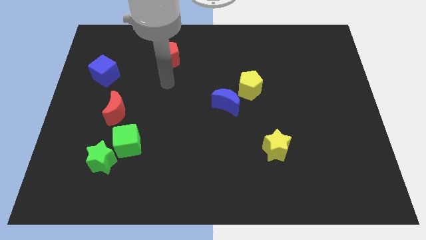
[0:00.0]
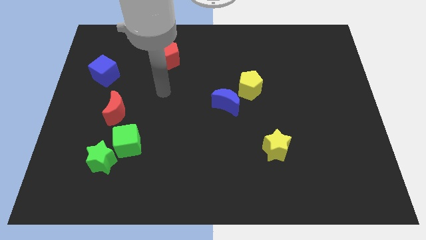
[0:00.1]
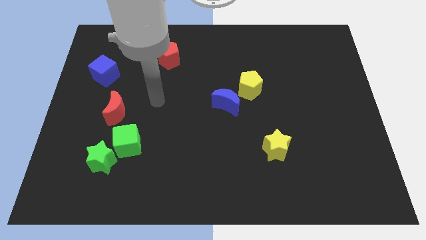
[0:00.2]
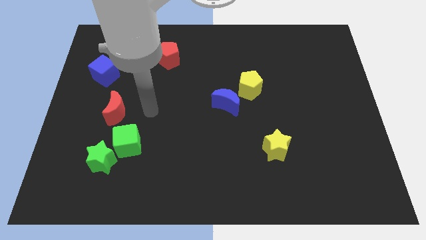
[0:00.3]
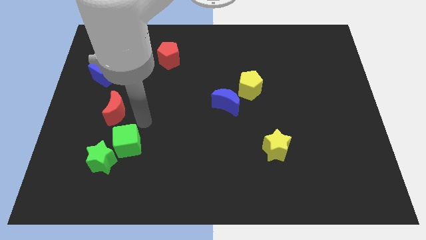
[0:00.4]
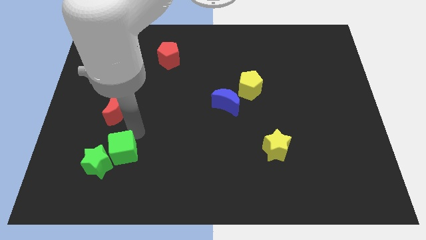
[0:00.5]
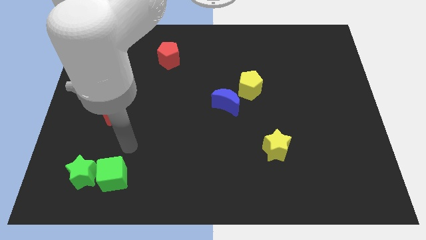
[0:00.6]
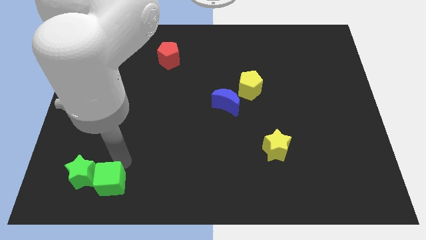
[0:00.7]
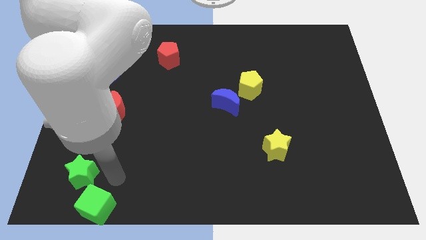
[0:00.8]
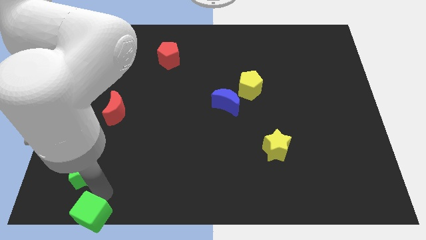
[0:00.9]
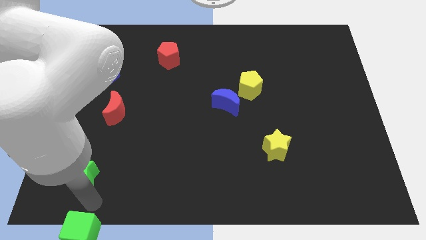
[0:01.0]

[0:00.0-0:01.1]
pull the green star apart from the green cube

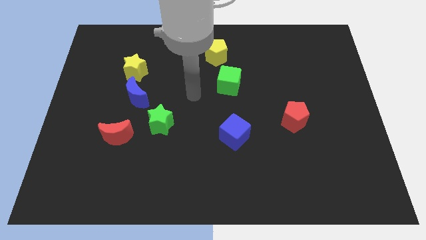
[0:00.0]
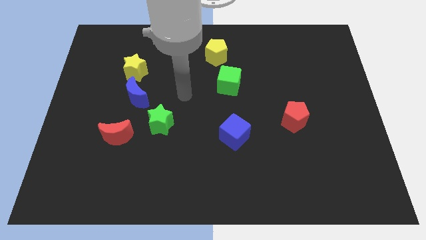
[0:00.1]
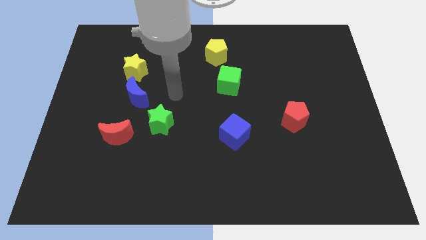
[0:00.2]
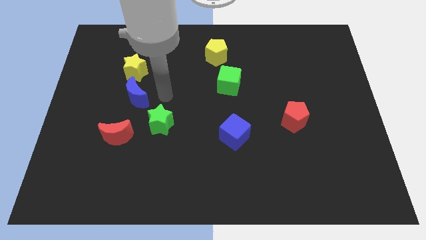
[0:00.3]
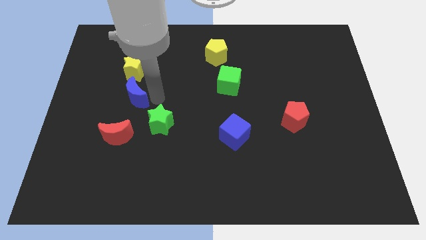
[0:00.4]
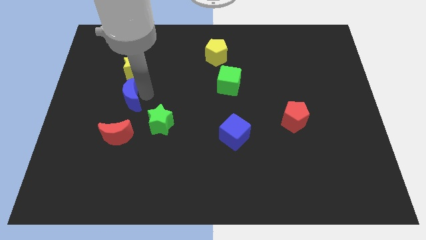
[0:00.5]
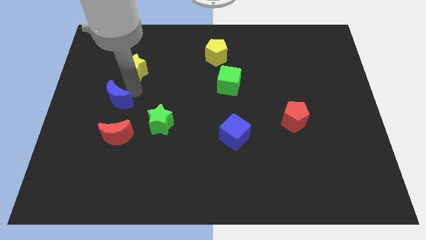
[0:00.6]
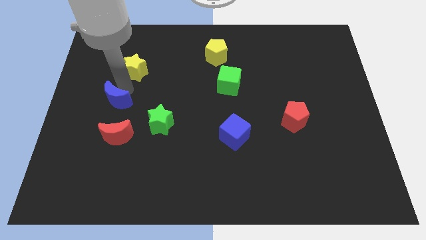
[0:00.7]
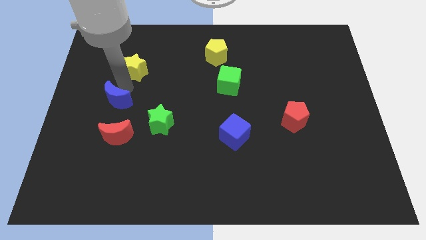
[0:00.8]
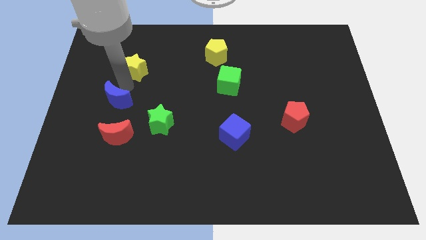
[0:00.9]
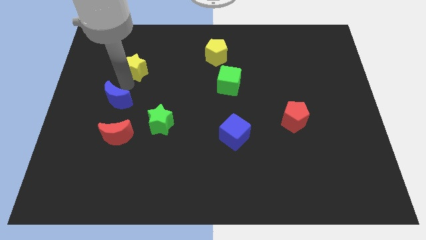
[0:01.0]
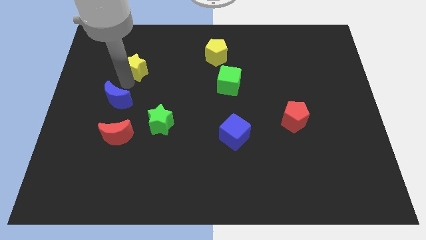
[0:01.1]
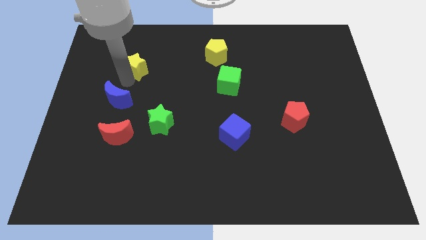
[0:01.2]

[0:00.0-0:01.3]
pull the yellow star apart from the blue moon

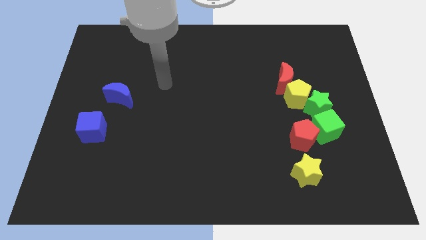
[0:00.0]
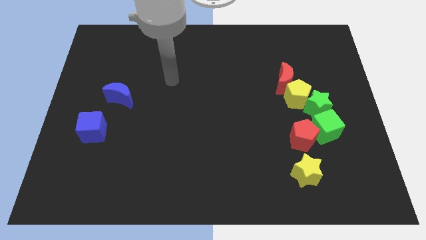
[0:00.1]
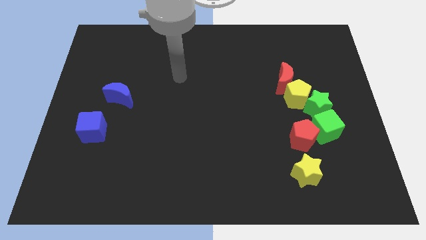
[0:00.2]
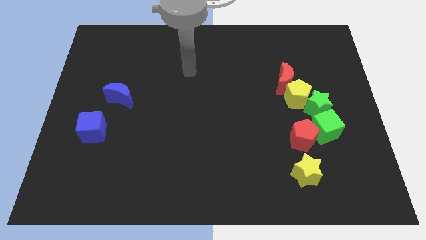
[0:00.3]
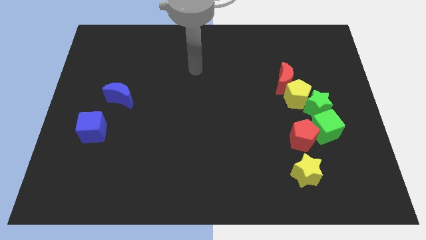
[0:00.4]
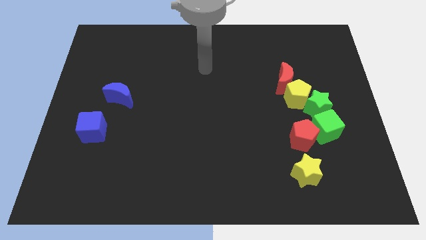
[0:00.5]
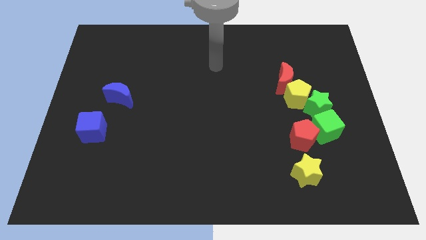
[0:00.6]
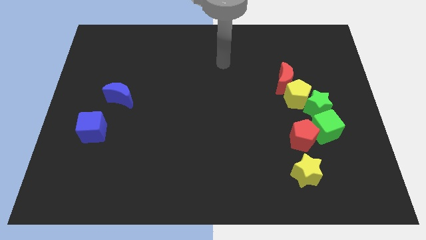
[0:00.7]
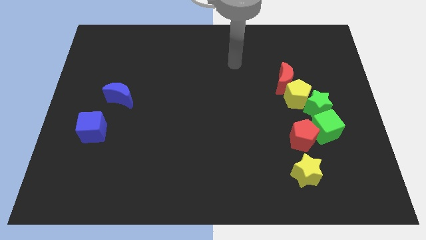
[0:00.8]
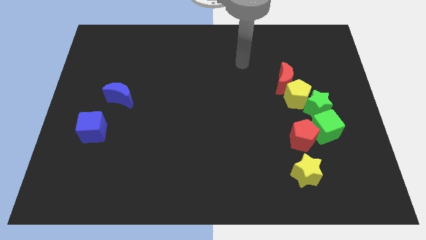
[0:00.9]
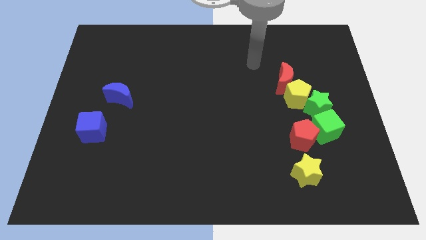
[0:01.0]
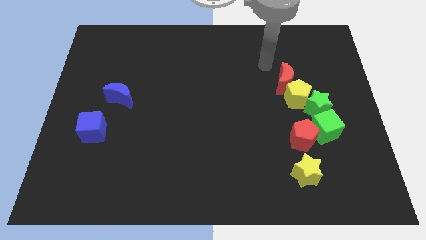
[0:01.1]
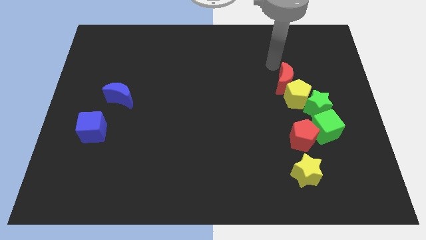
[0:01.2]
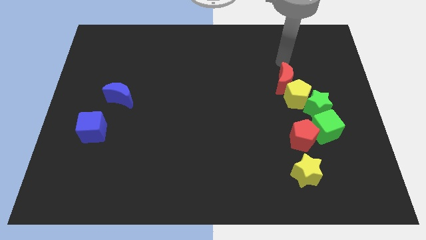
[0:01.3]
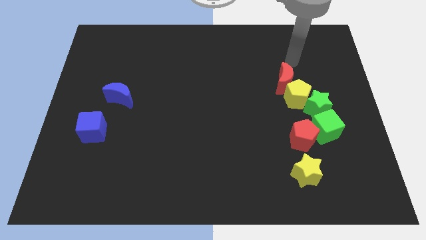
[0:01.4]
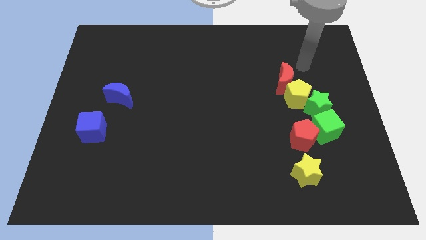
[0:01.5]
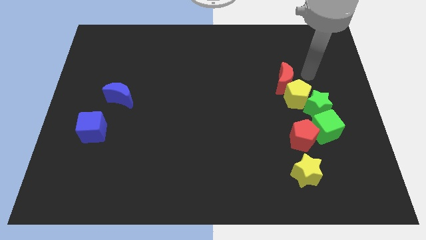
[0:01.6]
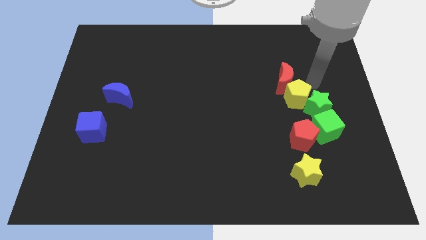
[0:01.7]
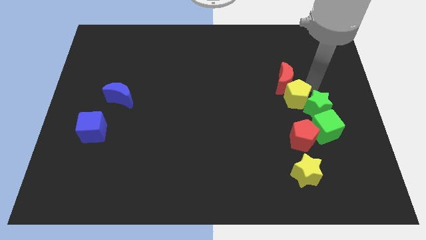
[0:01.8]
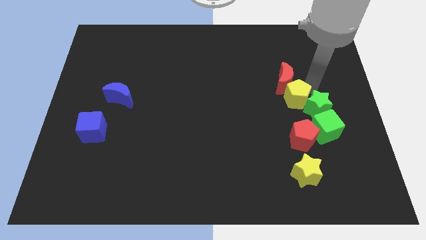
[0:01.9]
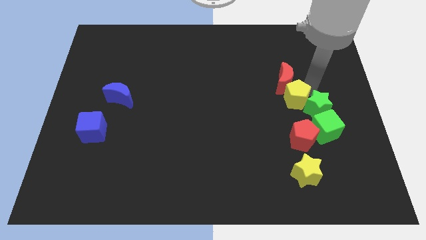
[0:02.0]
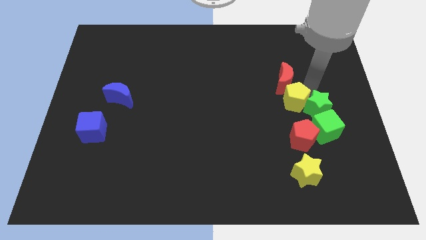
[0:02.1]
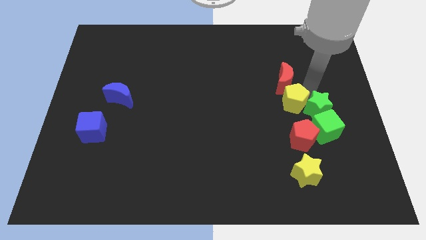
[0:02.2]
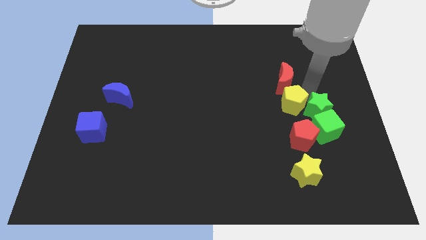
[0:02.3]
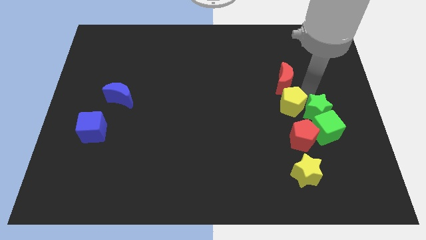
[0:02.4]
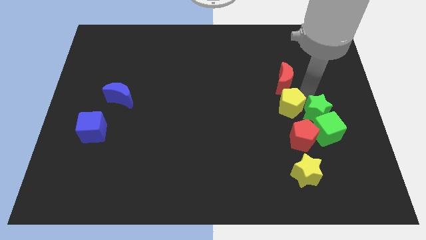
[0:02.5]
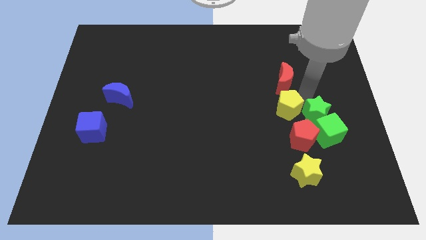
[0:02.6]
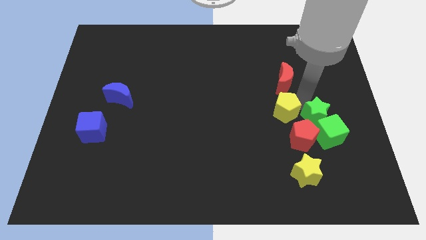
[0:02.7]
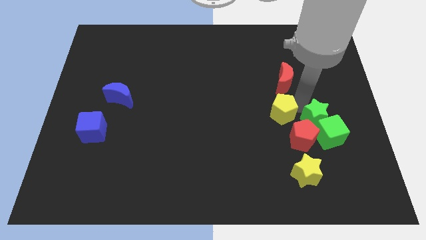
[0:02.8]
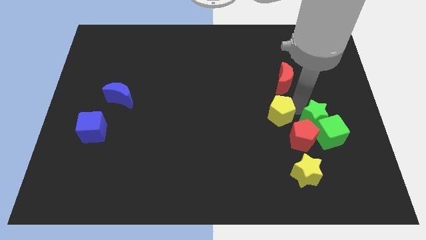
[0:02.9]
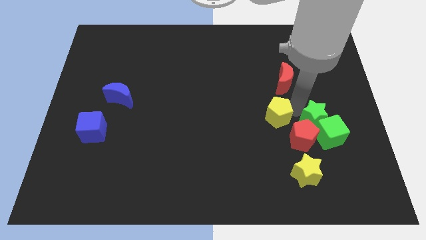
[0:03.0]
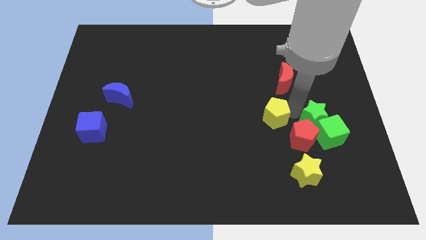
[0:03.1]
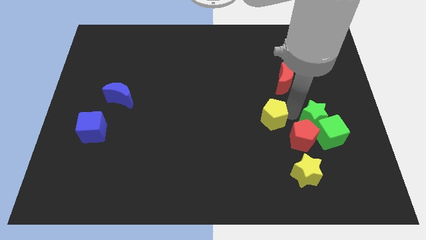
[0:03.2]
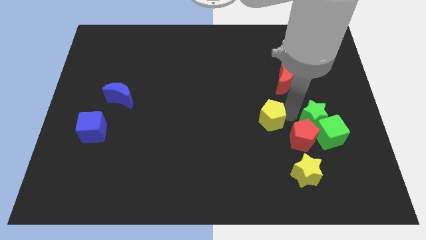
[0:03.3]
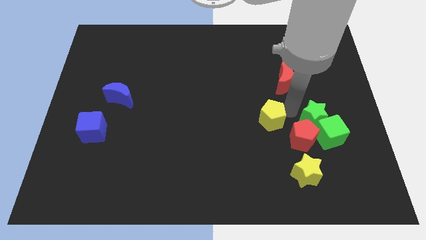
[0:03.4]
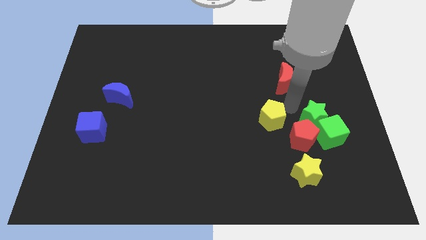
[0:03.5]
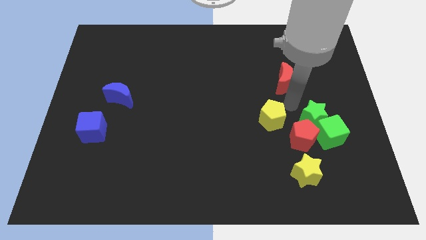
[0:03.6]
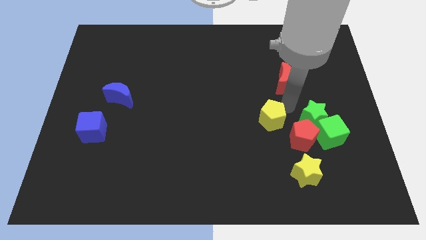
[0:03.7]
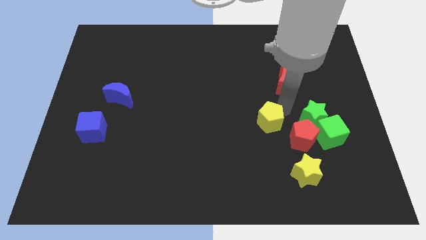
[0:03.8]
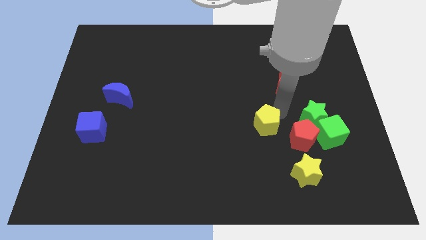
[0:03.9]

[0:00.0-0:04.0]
separate the yellow pentagon from the green star and red moon

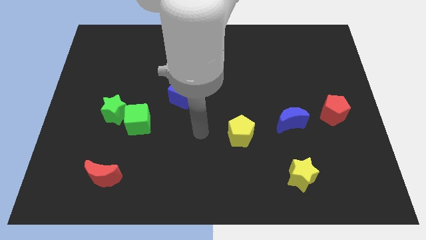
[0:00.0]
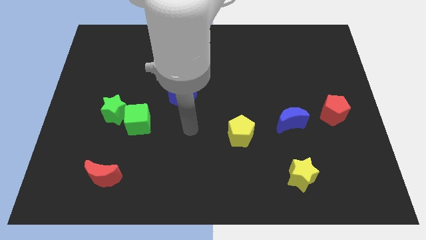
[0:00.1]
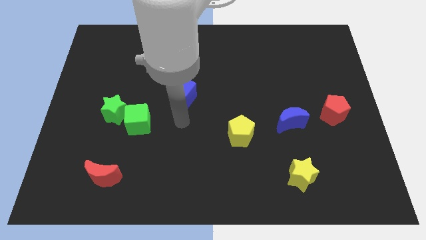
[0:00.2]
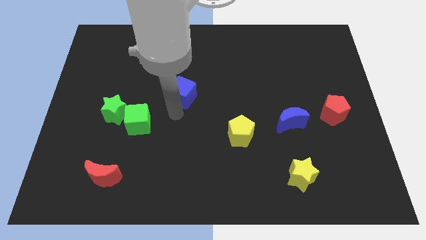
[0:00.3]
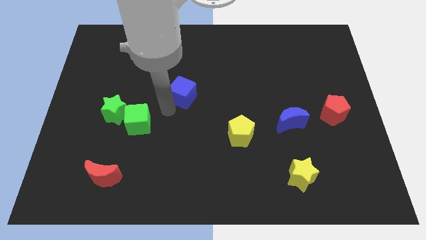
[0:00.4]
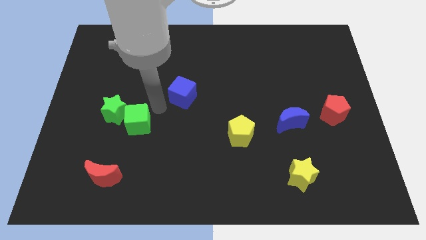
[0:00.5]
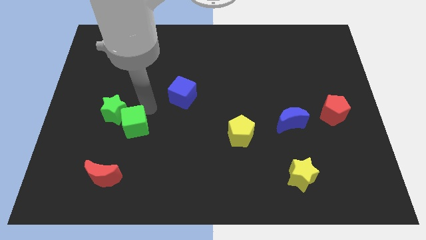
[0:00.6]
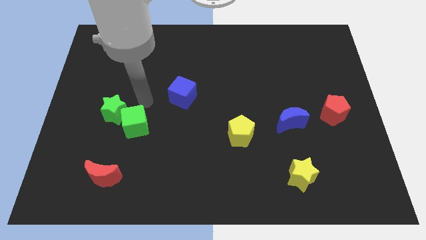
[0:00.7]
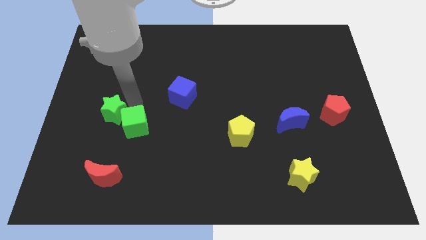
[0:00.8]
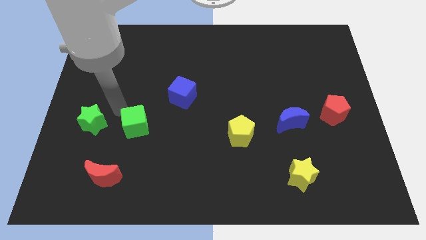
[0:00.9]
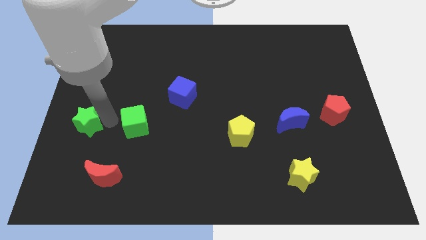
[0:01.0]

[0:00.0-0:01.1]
pull the green cube apart from the green star

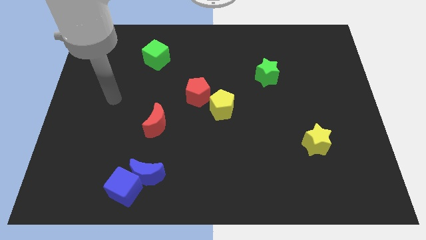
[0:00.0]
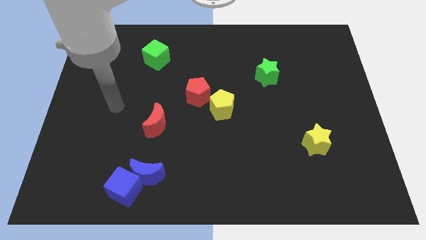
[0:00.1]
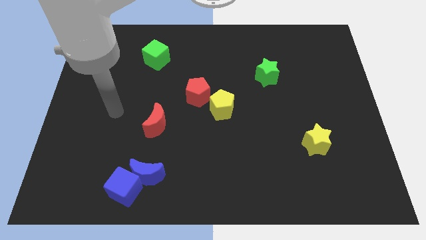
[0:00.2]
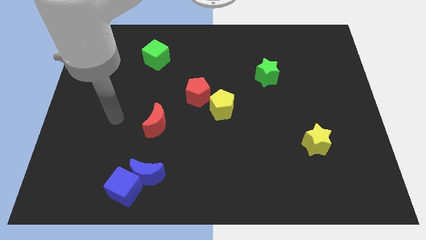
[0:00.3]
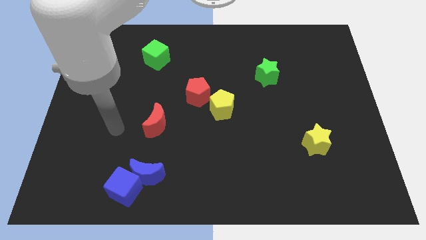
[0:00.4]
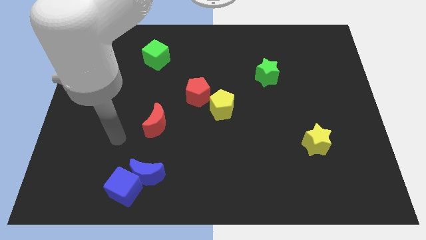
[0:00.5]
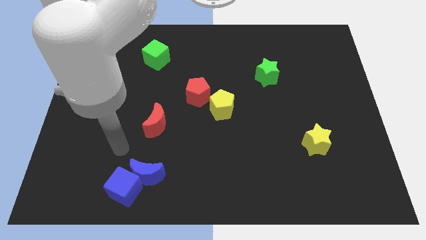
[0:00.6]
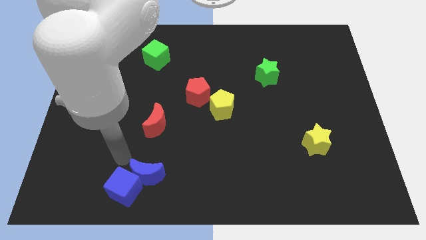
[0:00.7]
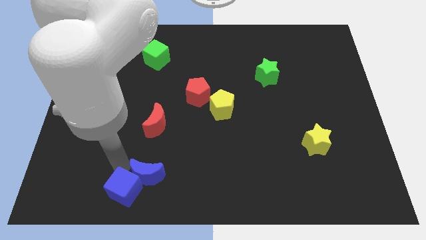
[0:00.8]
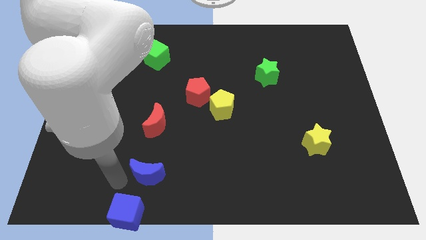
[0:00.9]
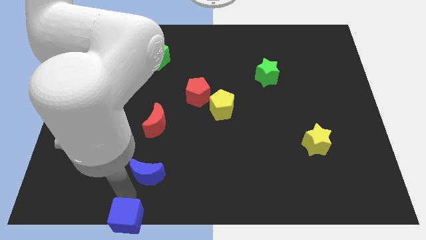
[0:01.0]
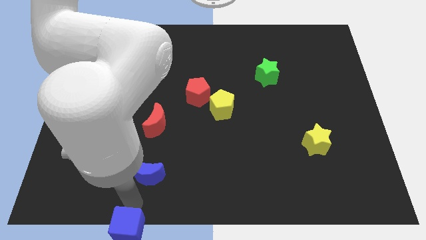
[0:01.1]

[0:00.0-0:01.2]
separate the blue moon from the blue cube

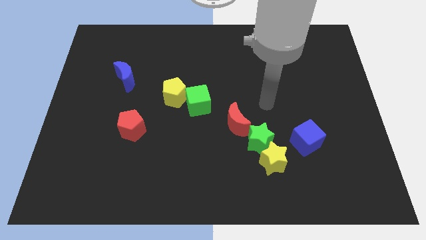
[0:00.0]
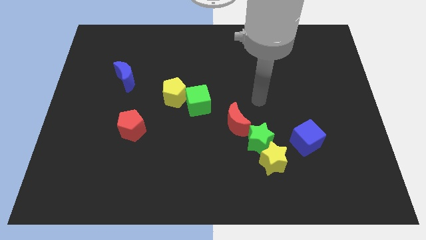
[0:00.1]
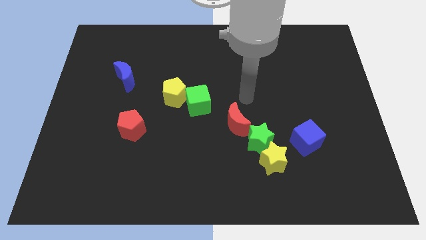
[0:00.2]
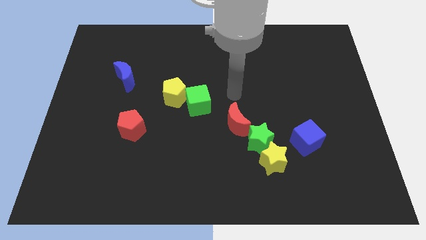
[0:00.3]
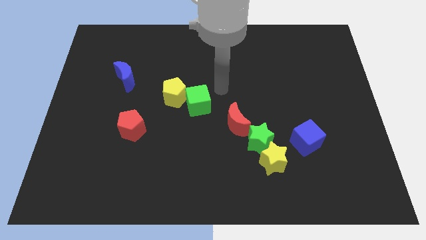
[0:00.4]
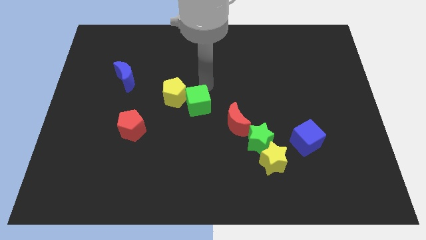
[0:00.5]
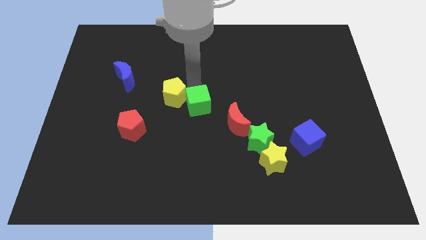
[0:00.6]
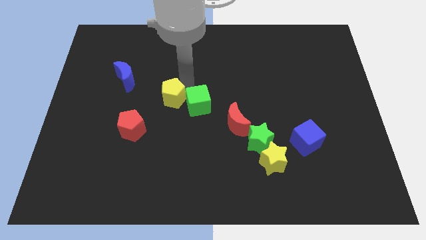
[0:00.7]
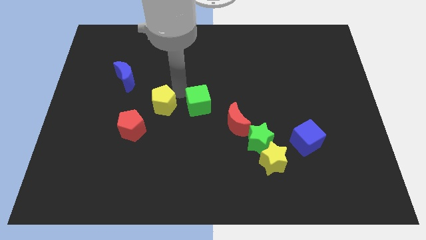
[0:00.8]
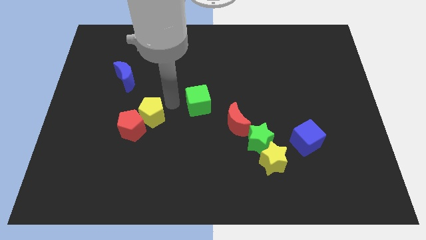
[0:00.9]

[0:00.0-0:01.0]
move the green cube away from the yellow pentagon
